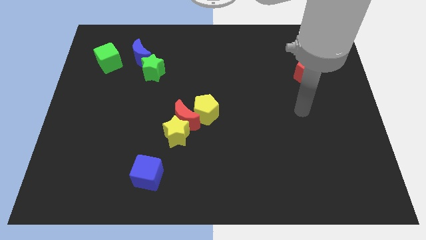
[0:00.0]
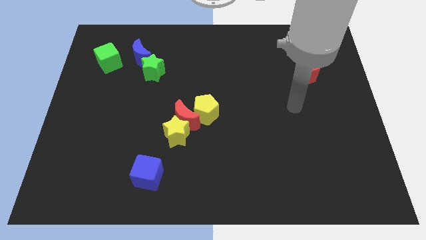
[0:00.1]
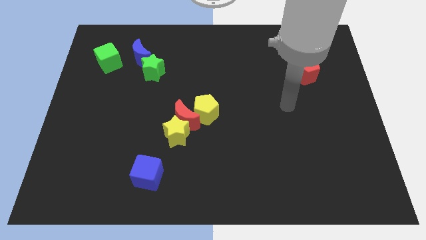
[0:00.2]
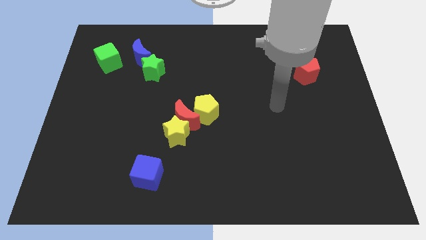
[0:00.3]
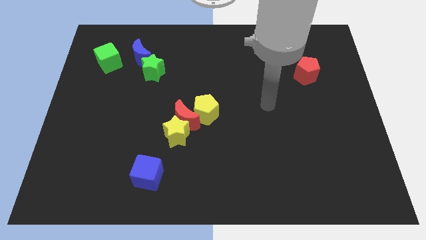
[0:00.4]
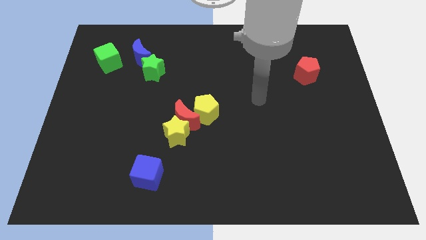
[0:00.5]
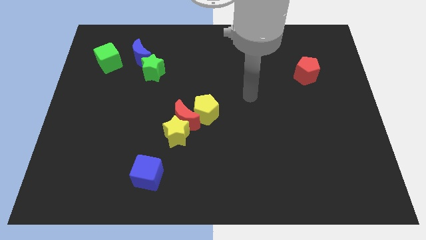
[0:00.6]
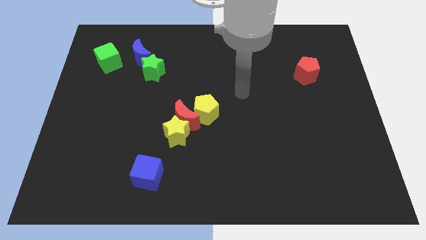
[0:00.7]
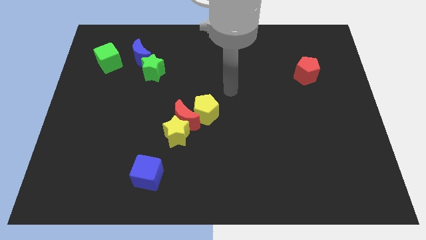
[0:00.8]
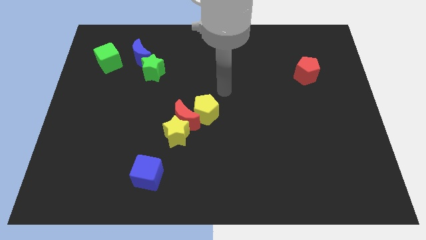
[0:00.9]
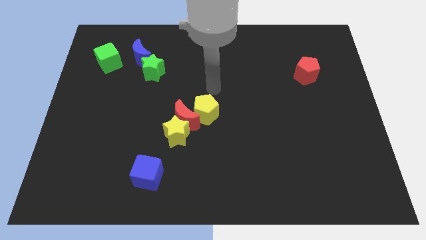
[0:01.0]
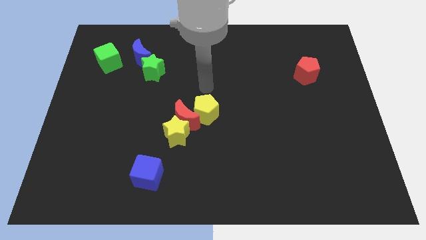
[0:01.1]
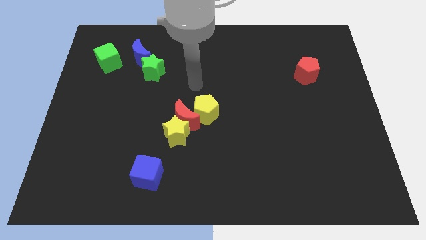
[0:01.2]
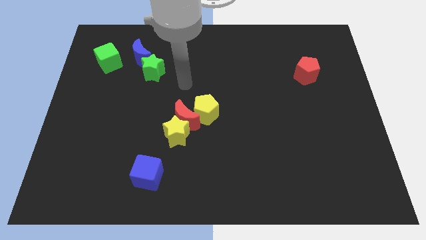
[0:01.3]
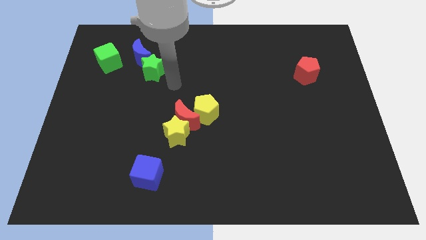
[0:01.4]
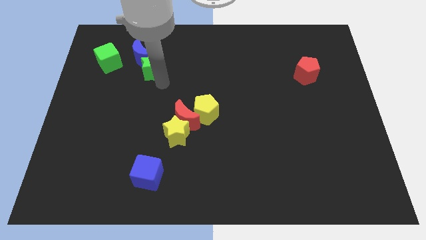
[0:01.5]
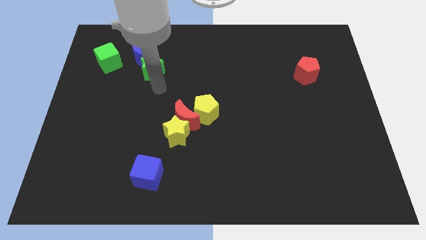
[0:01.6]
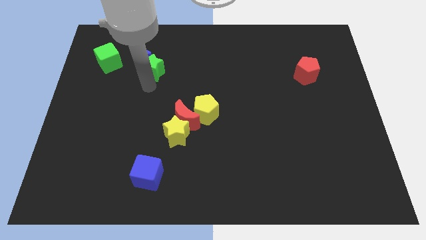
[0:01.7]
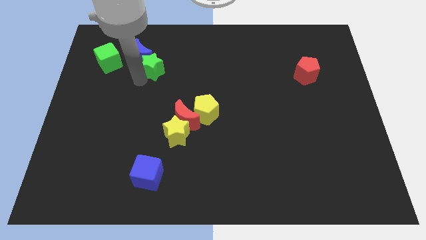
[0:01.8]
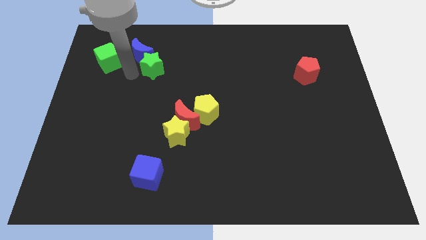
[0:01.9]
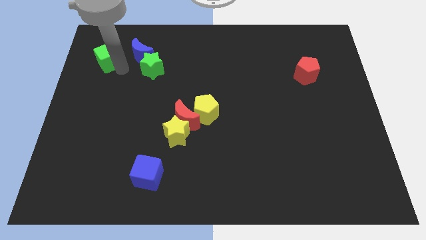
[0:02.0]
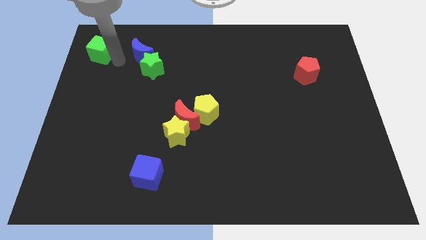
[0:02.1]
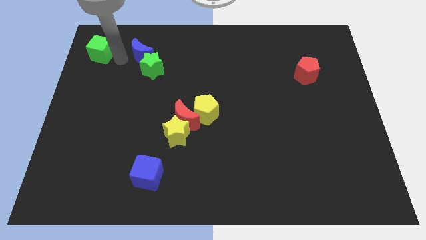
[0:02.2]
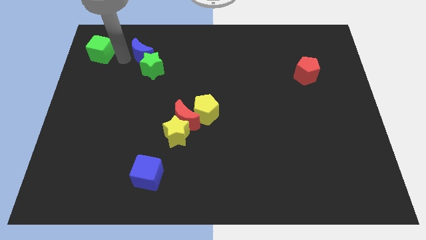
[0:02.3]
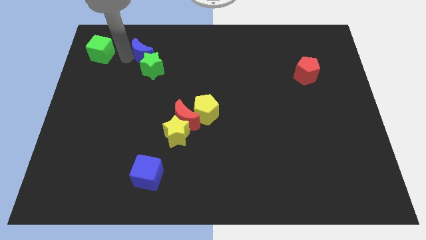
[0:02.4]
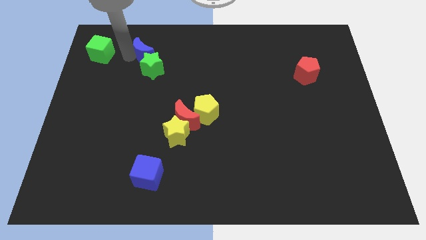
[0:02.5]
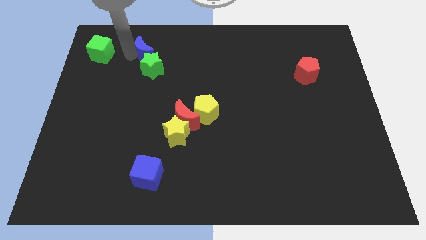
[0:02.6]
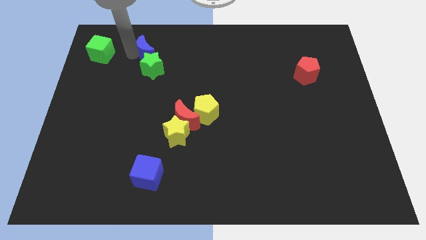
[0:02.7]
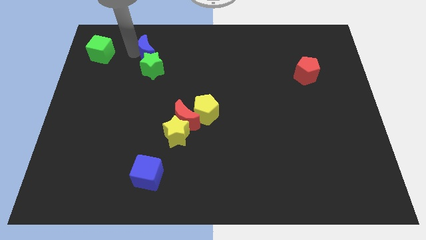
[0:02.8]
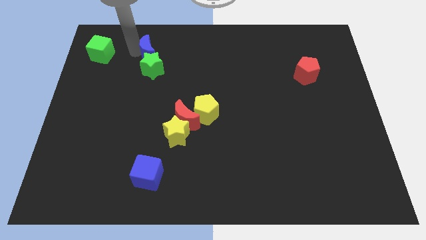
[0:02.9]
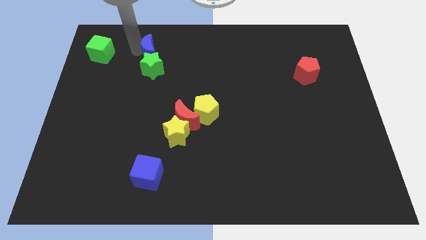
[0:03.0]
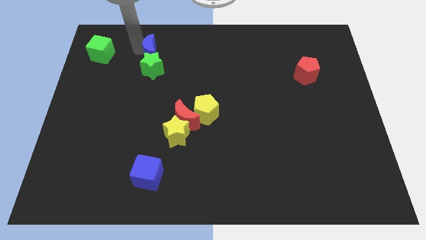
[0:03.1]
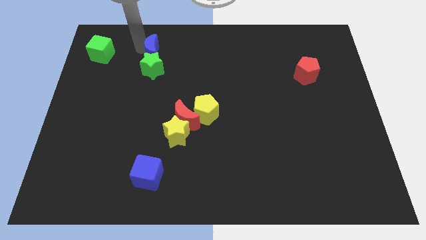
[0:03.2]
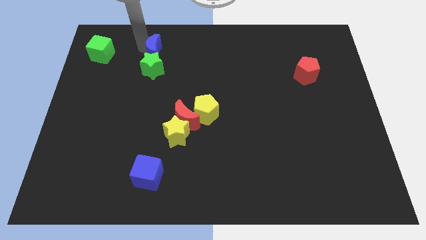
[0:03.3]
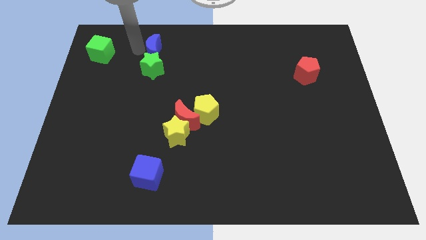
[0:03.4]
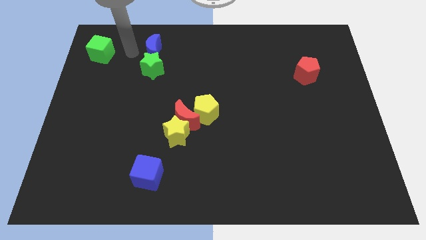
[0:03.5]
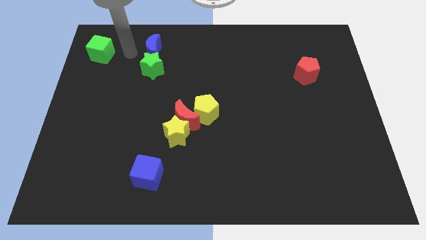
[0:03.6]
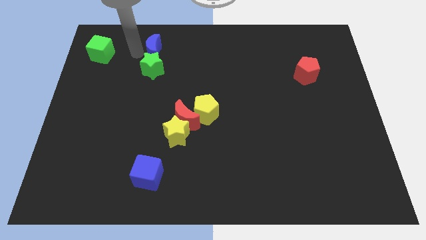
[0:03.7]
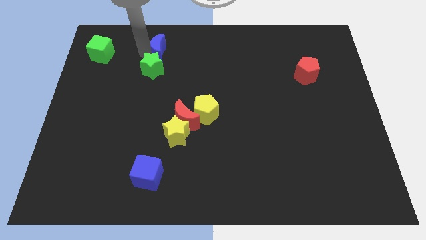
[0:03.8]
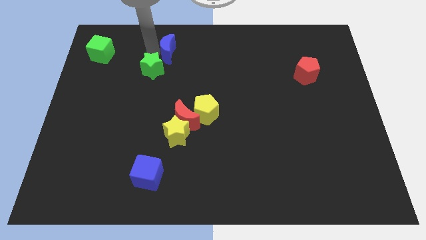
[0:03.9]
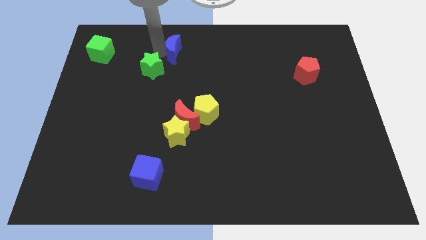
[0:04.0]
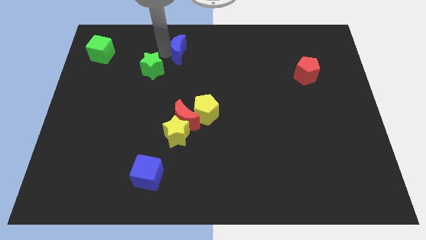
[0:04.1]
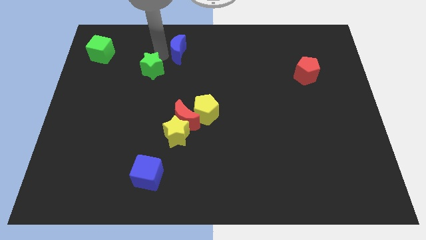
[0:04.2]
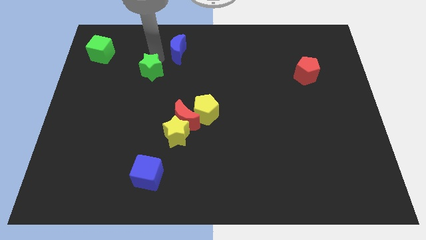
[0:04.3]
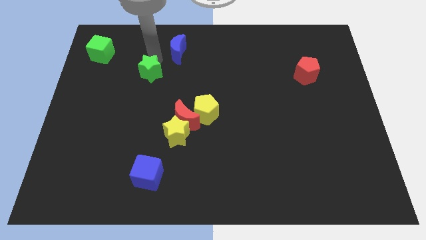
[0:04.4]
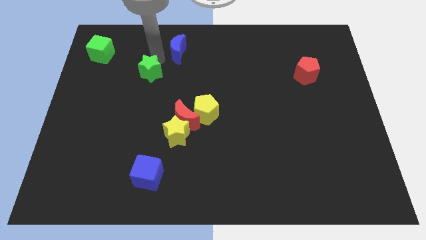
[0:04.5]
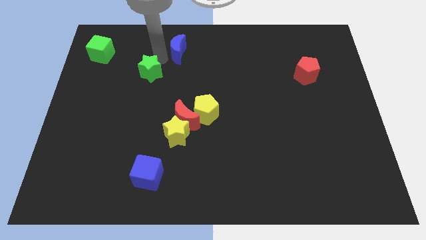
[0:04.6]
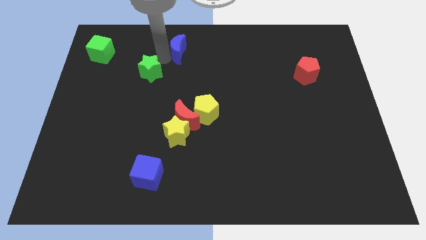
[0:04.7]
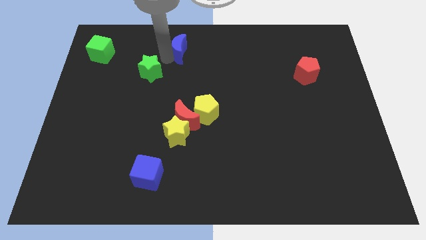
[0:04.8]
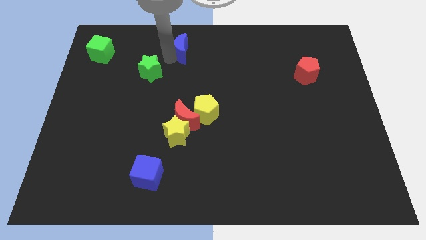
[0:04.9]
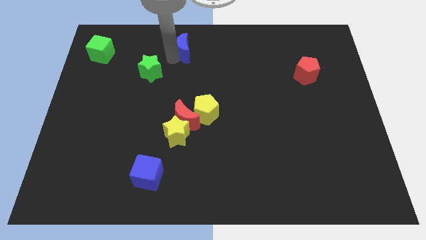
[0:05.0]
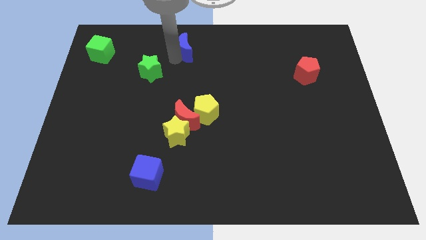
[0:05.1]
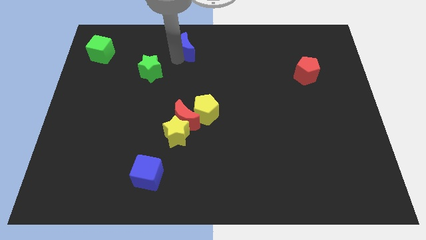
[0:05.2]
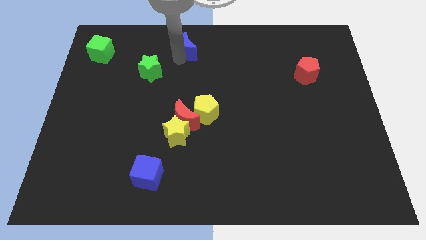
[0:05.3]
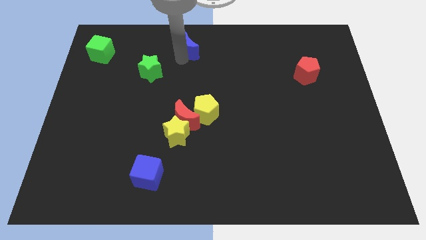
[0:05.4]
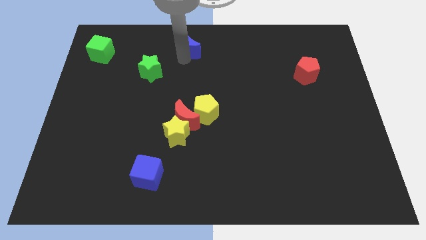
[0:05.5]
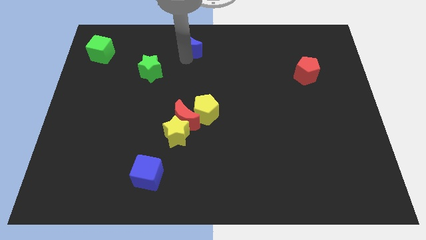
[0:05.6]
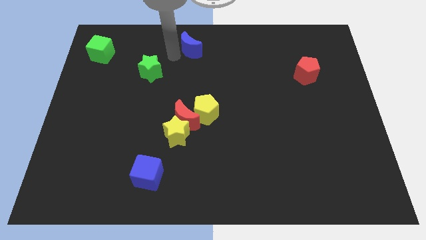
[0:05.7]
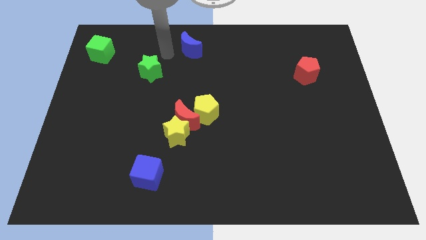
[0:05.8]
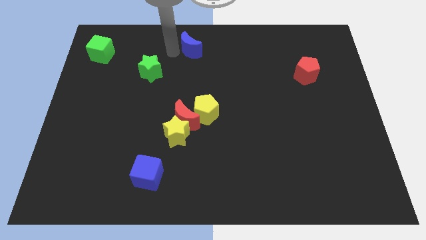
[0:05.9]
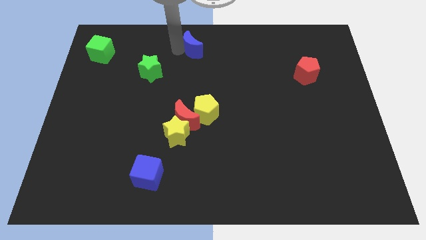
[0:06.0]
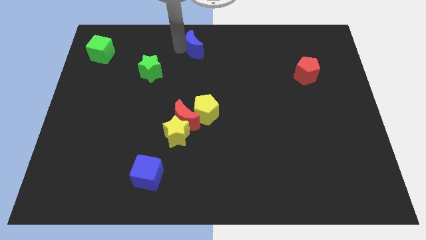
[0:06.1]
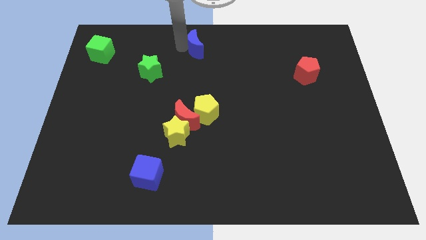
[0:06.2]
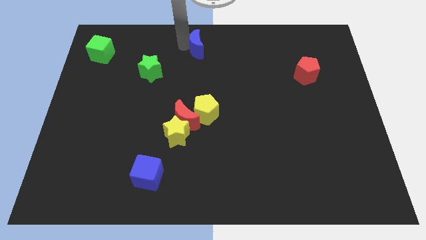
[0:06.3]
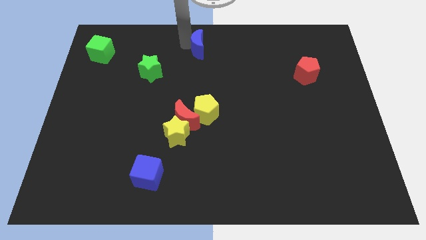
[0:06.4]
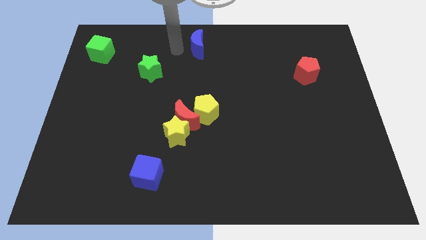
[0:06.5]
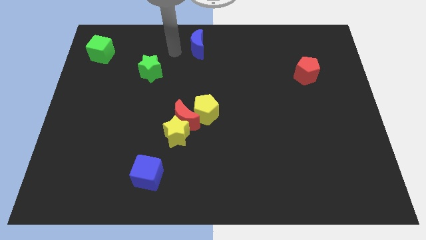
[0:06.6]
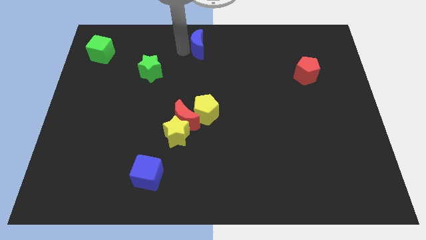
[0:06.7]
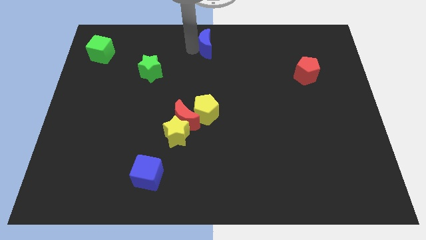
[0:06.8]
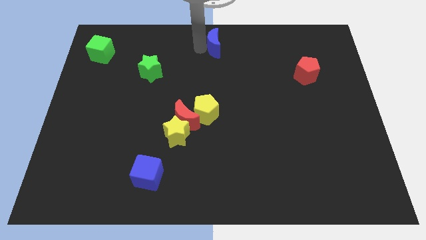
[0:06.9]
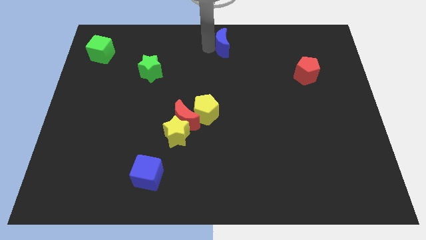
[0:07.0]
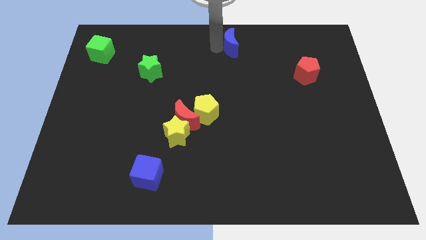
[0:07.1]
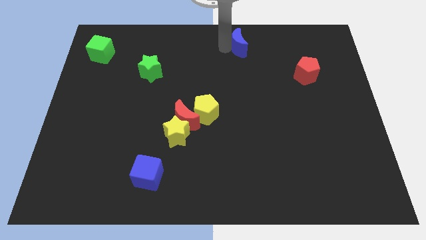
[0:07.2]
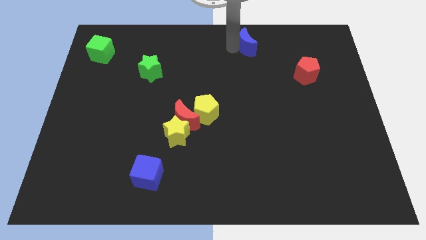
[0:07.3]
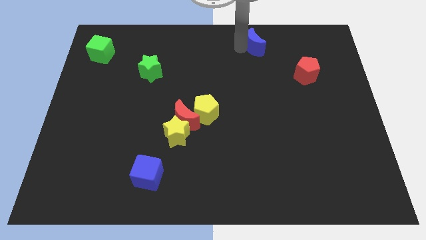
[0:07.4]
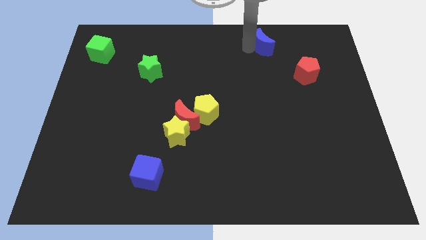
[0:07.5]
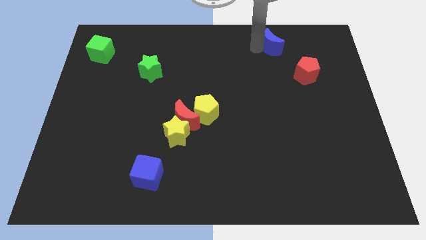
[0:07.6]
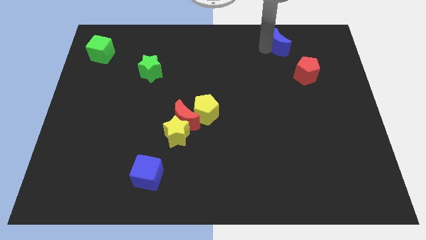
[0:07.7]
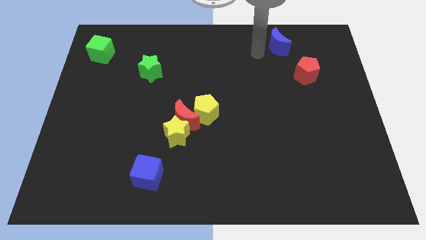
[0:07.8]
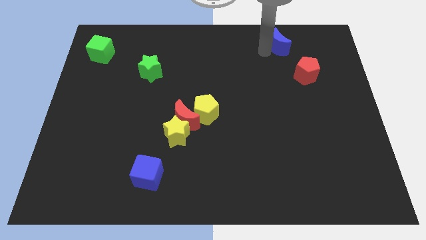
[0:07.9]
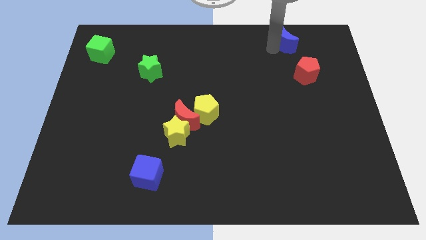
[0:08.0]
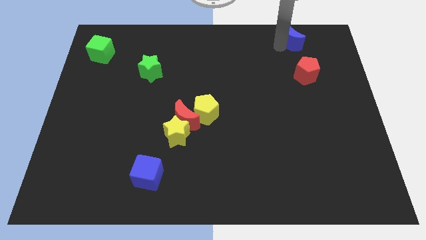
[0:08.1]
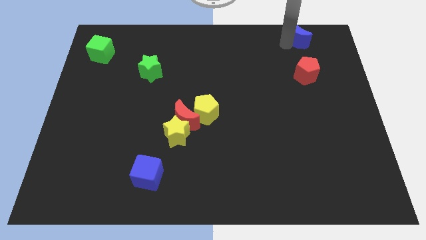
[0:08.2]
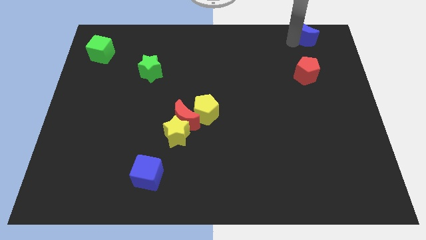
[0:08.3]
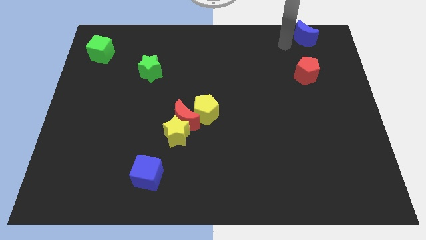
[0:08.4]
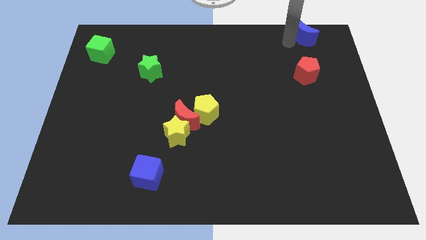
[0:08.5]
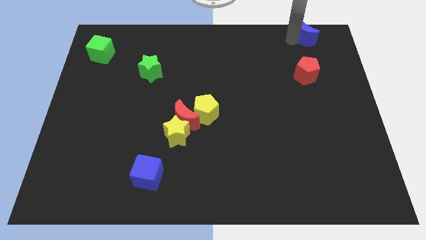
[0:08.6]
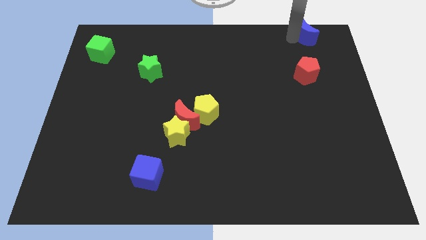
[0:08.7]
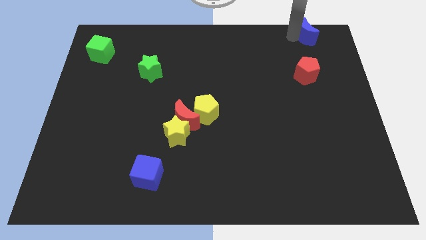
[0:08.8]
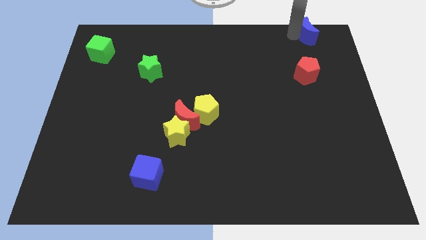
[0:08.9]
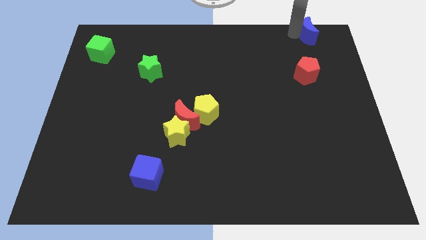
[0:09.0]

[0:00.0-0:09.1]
put the blue moon to the upper right corner
